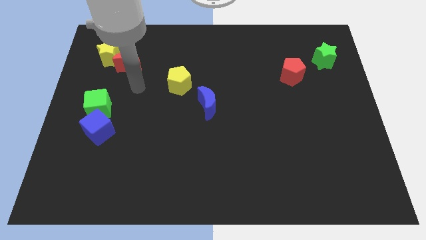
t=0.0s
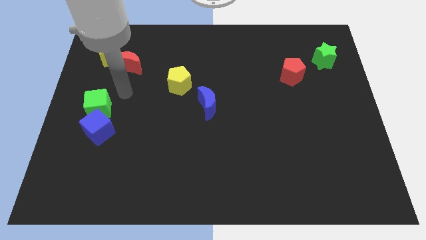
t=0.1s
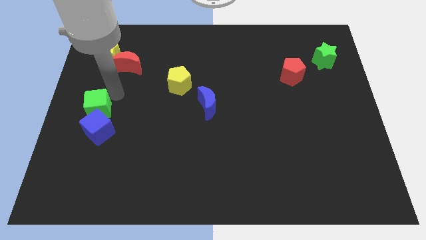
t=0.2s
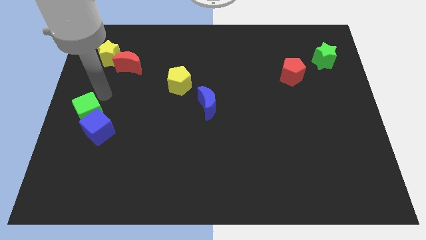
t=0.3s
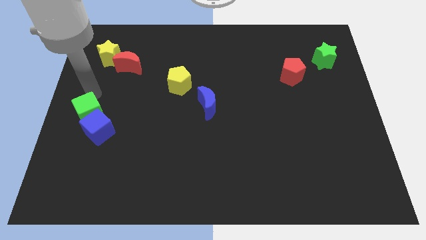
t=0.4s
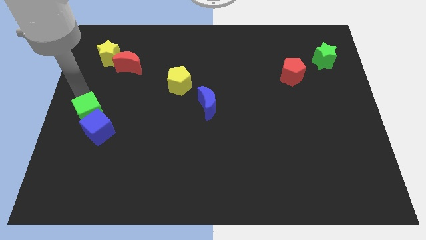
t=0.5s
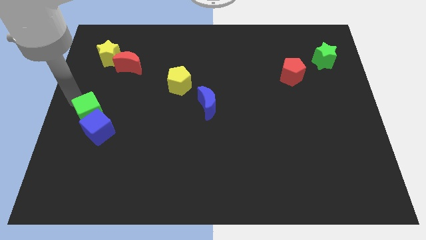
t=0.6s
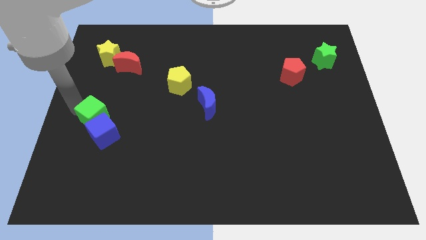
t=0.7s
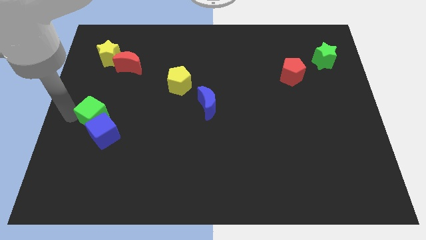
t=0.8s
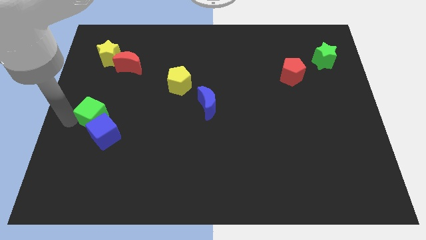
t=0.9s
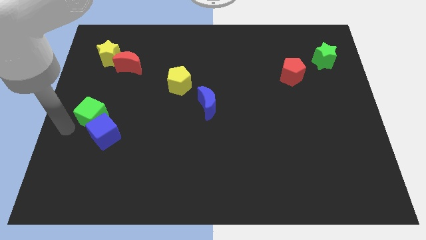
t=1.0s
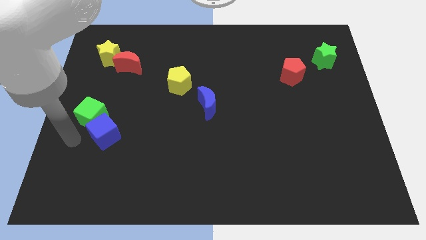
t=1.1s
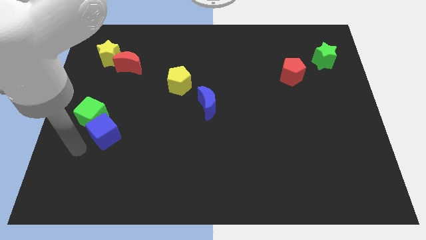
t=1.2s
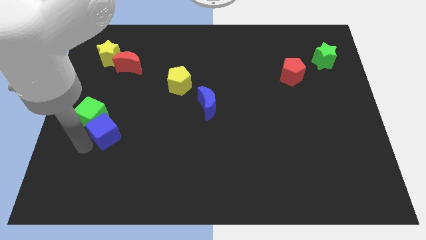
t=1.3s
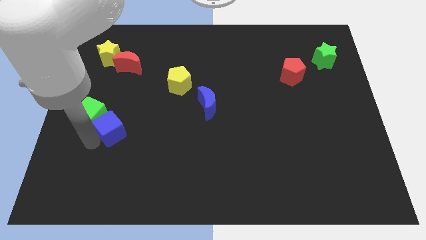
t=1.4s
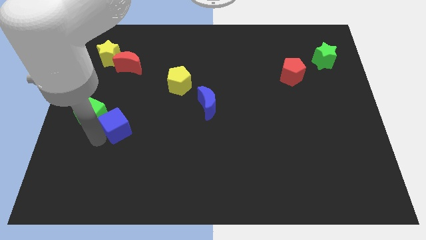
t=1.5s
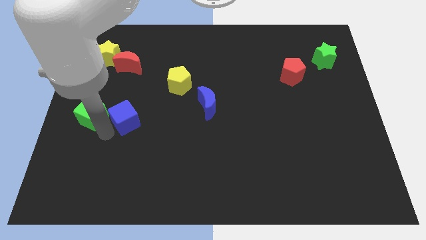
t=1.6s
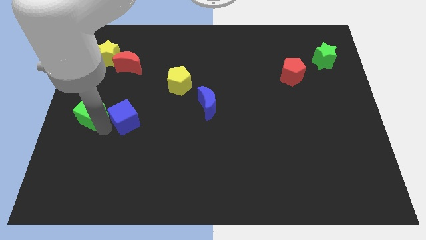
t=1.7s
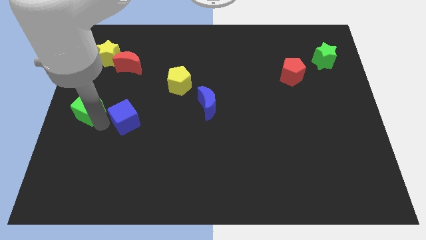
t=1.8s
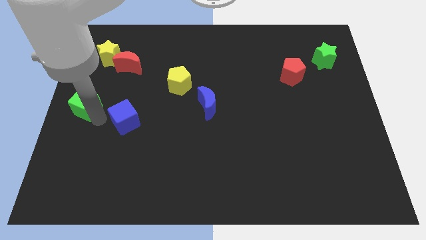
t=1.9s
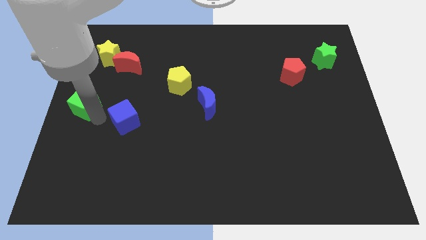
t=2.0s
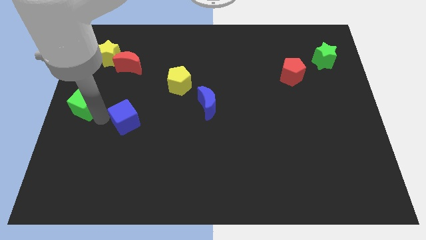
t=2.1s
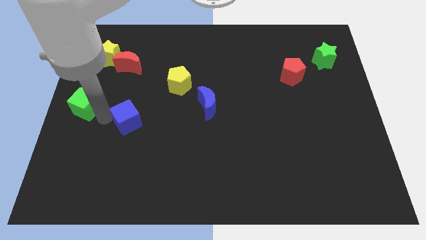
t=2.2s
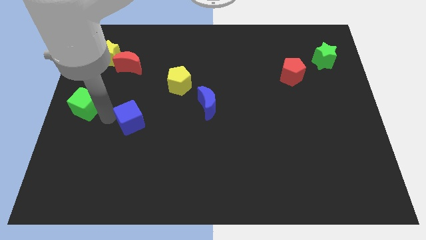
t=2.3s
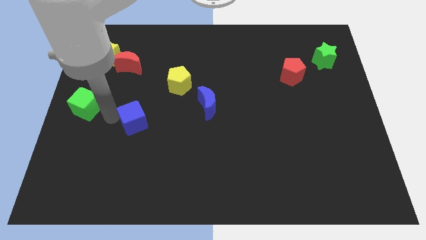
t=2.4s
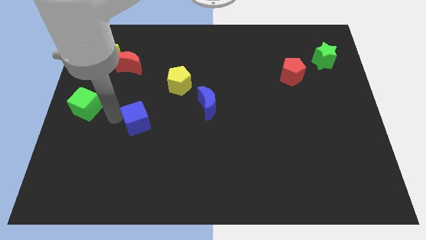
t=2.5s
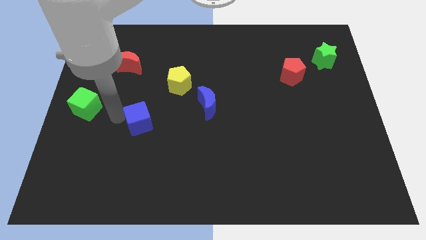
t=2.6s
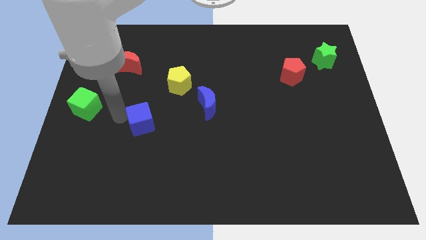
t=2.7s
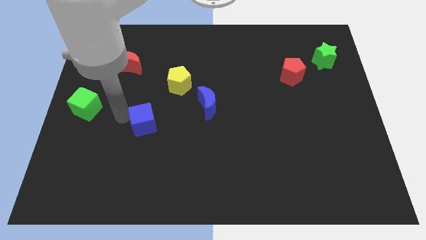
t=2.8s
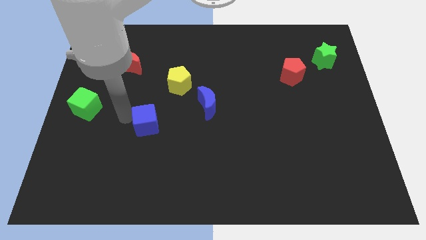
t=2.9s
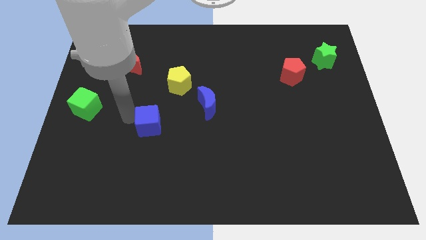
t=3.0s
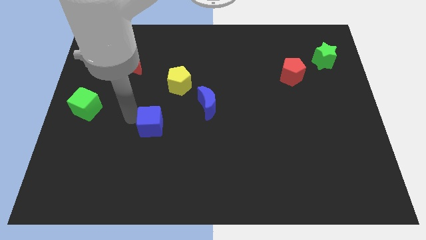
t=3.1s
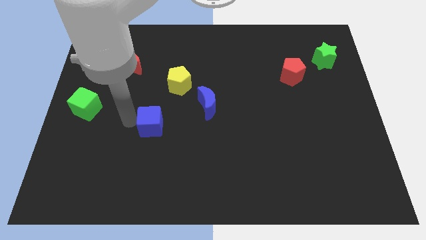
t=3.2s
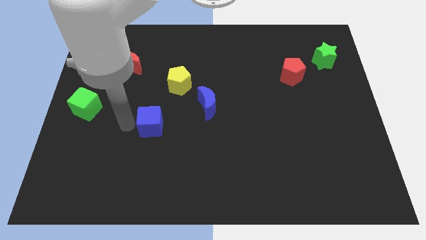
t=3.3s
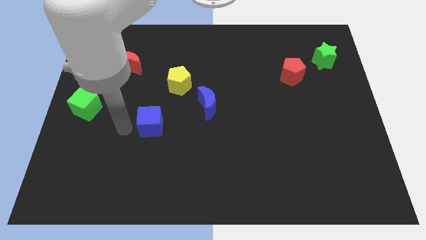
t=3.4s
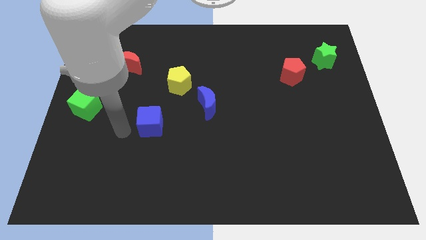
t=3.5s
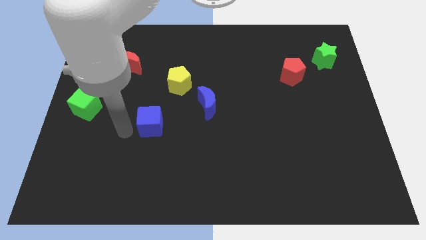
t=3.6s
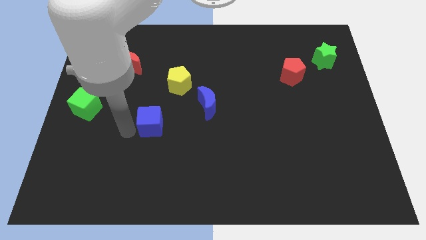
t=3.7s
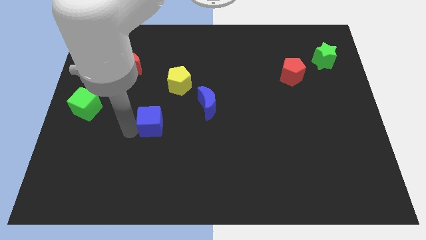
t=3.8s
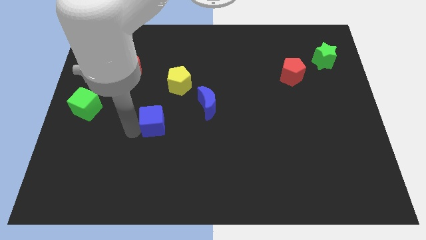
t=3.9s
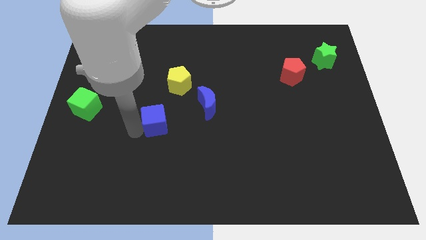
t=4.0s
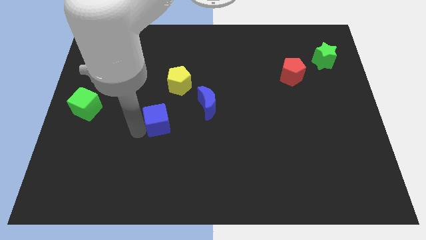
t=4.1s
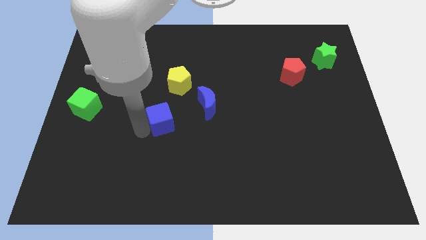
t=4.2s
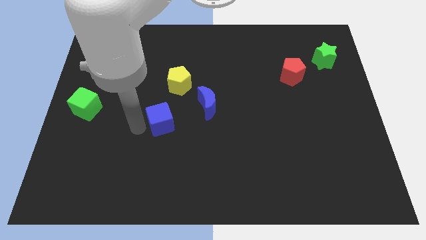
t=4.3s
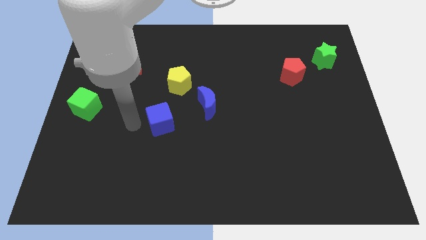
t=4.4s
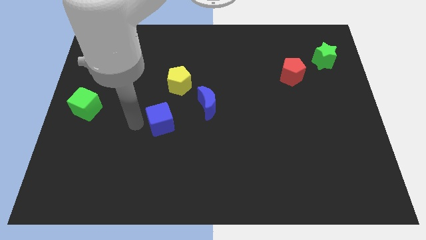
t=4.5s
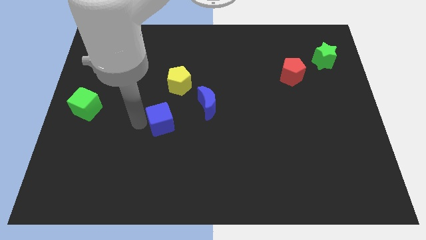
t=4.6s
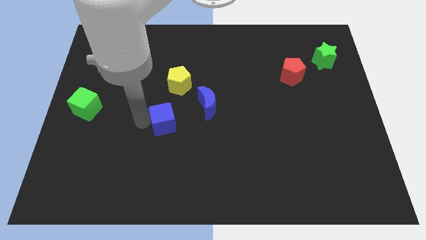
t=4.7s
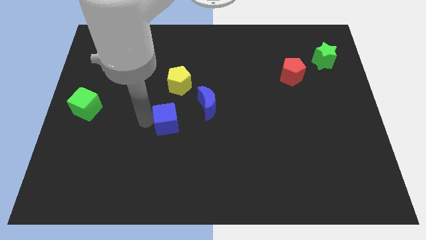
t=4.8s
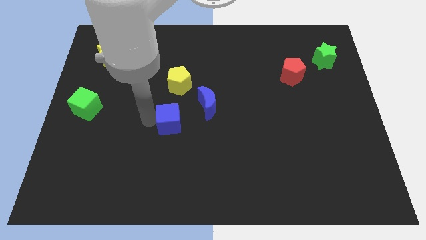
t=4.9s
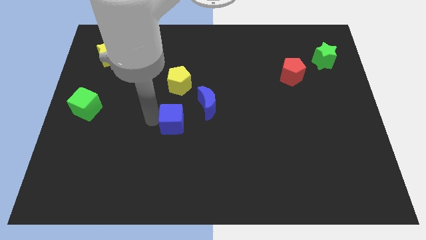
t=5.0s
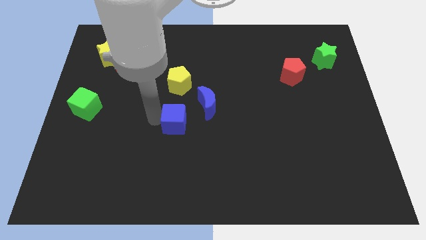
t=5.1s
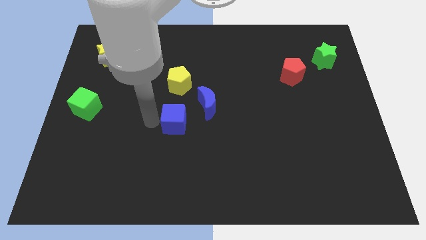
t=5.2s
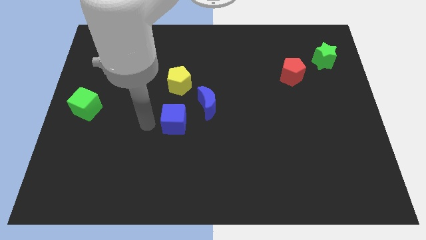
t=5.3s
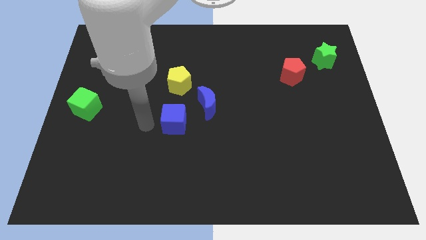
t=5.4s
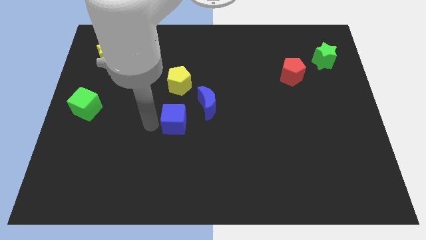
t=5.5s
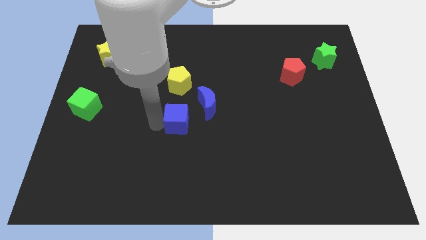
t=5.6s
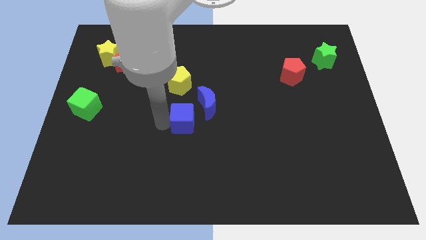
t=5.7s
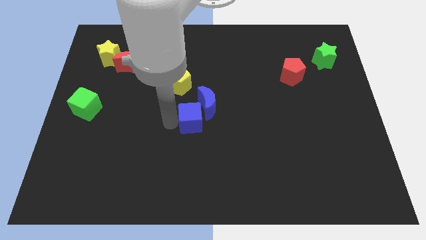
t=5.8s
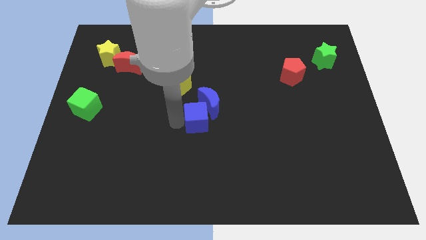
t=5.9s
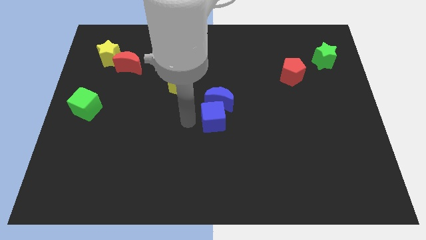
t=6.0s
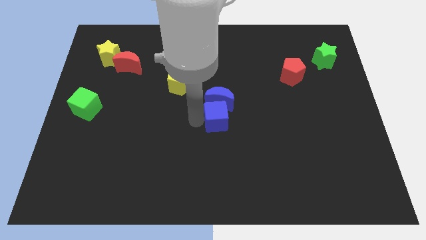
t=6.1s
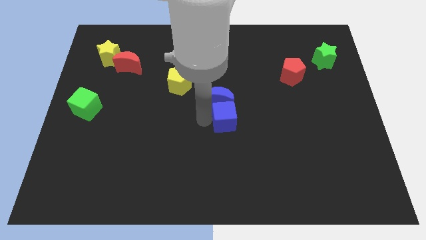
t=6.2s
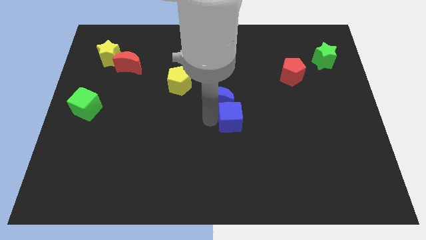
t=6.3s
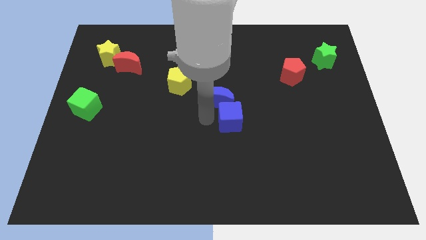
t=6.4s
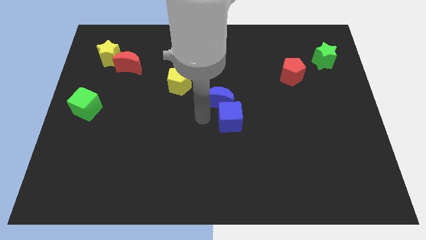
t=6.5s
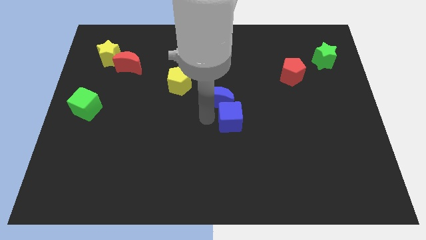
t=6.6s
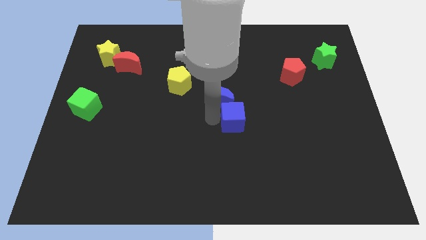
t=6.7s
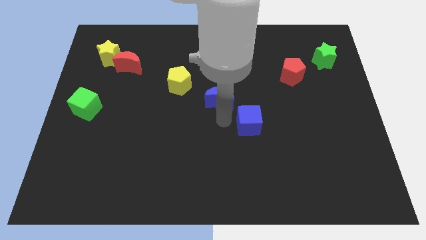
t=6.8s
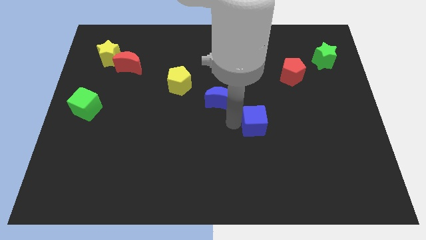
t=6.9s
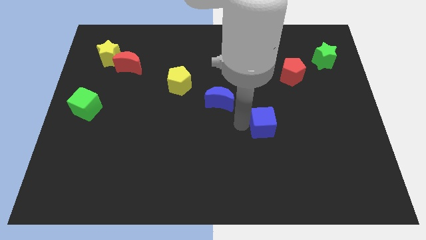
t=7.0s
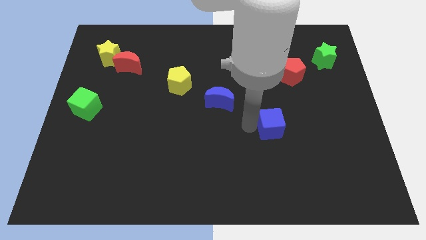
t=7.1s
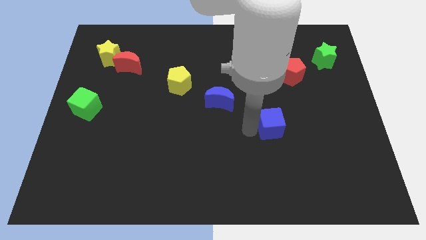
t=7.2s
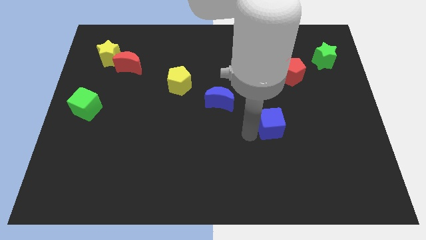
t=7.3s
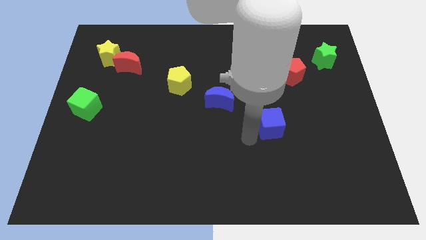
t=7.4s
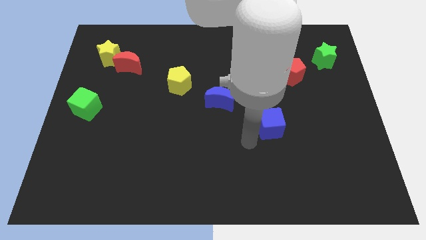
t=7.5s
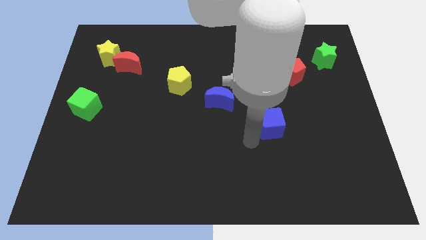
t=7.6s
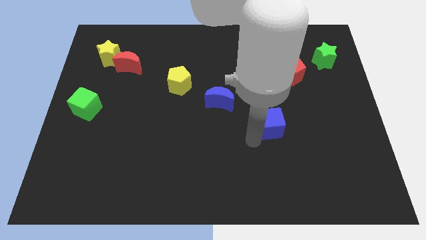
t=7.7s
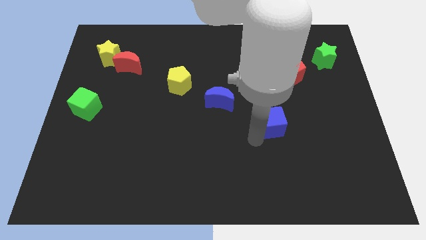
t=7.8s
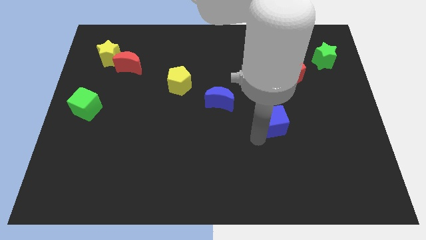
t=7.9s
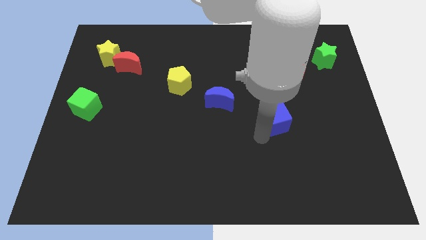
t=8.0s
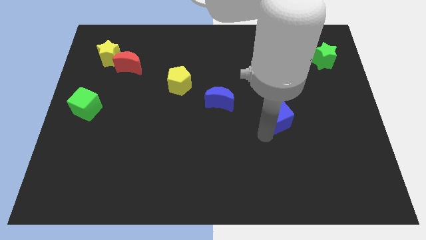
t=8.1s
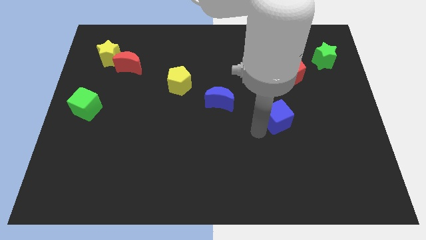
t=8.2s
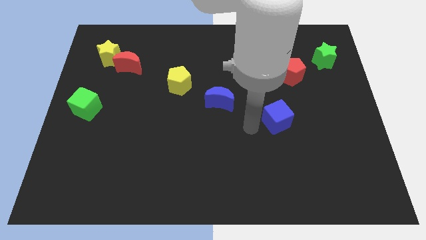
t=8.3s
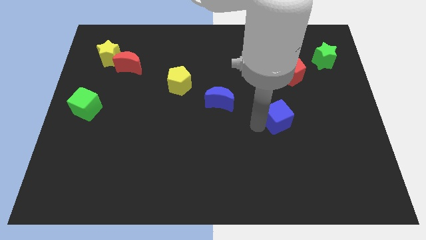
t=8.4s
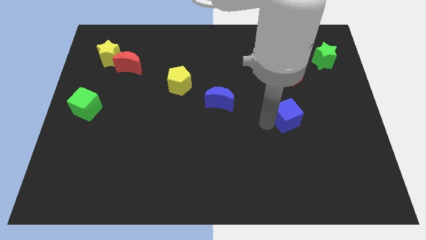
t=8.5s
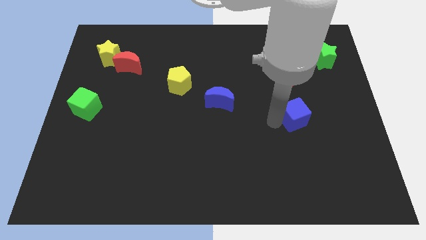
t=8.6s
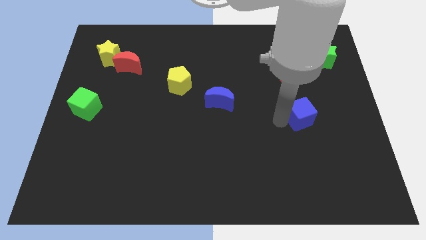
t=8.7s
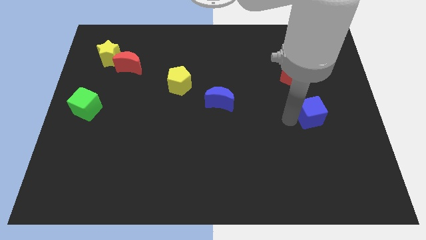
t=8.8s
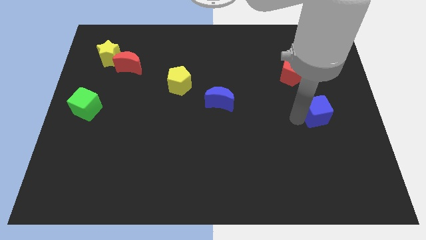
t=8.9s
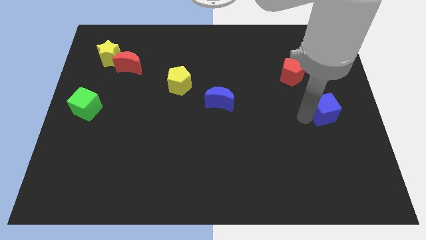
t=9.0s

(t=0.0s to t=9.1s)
push the blue cube to the right side
